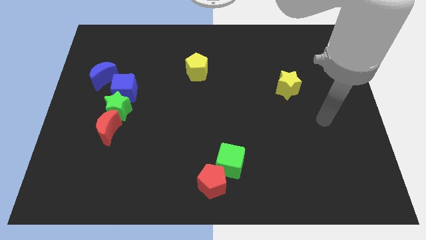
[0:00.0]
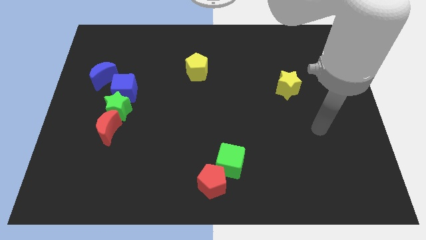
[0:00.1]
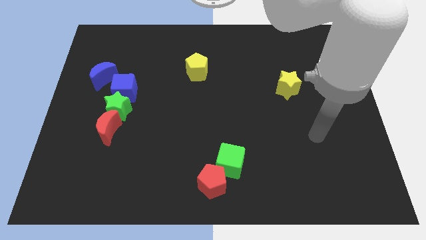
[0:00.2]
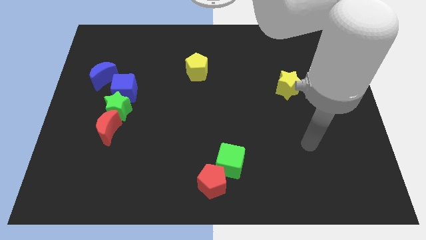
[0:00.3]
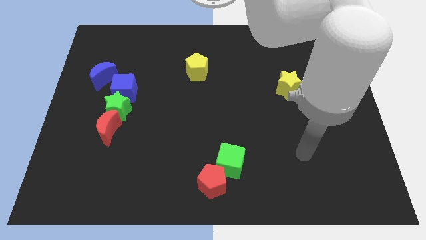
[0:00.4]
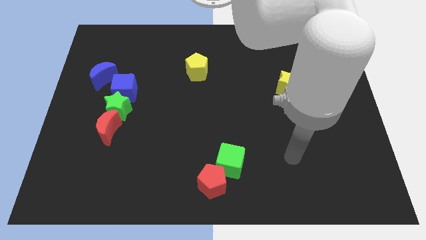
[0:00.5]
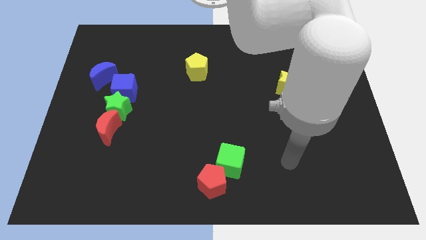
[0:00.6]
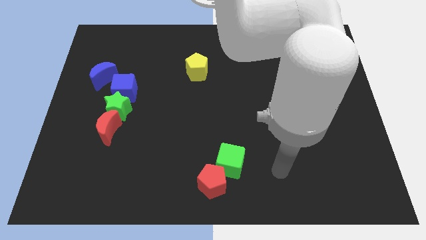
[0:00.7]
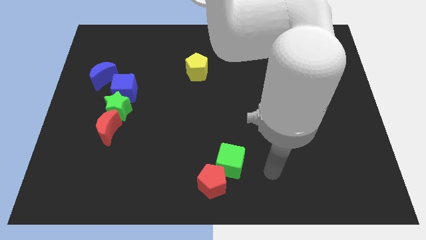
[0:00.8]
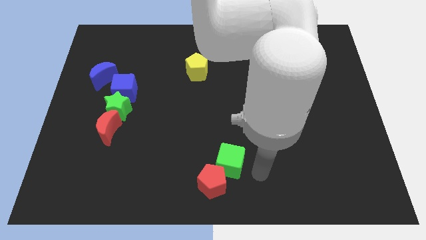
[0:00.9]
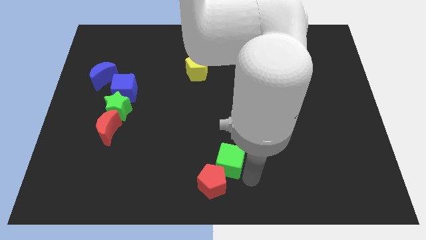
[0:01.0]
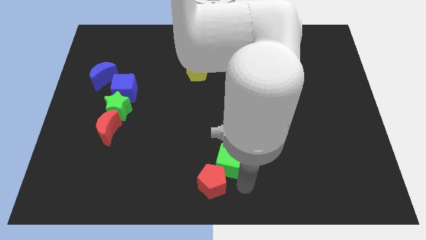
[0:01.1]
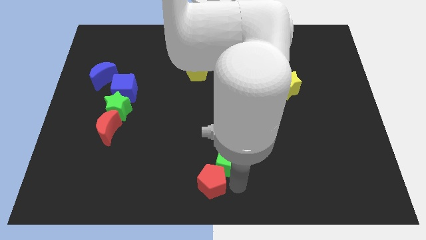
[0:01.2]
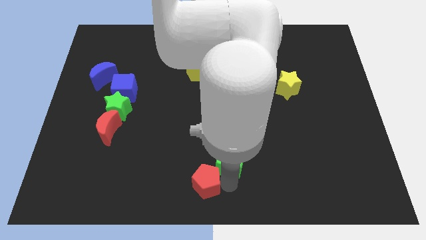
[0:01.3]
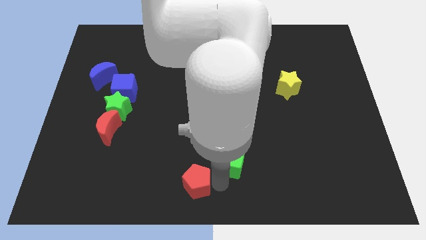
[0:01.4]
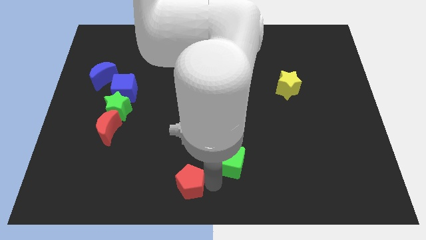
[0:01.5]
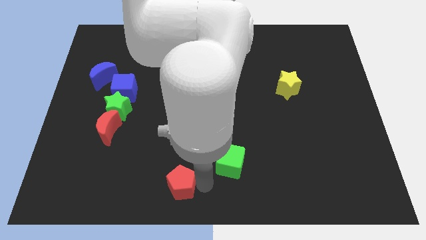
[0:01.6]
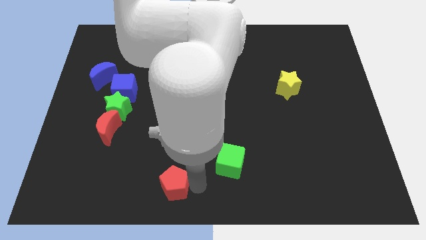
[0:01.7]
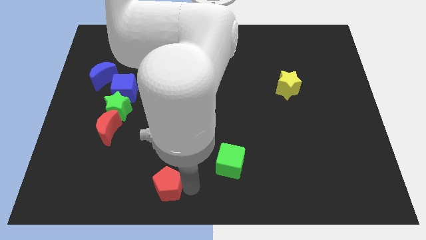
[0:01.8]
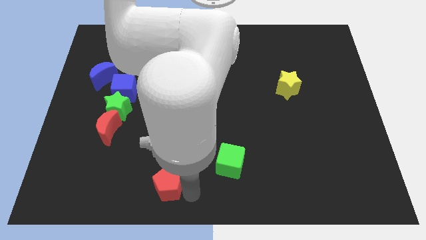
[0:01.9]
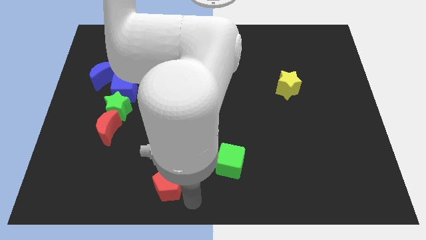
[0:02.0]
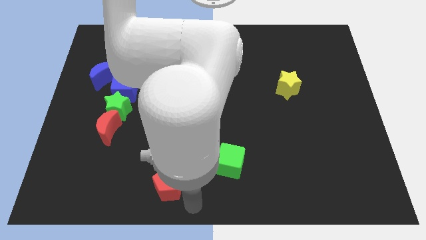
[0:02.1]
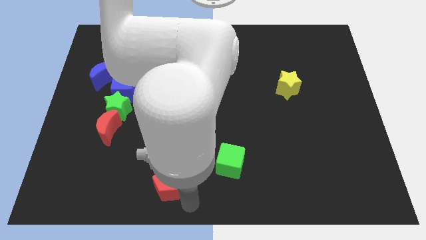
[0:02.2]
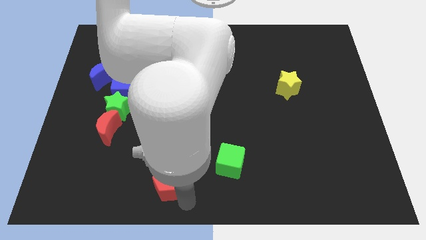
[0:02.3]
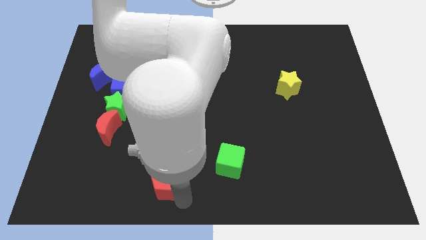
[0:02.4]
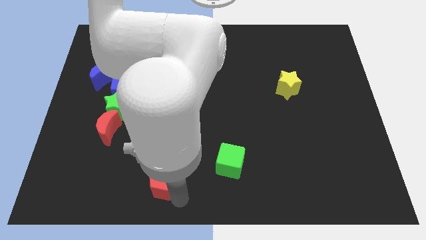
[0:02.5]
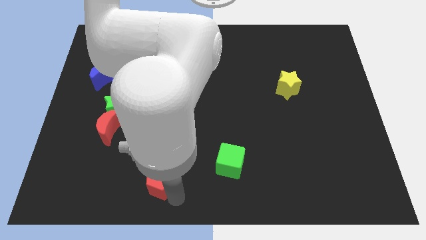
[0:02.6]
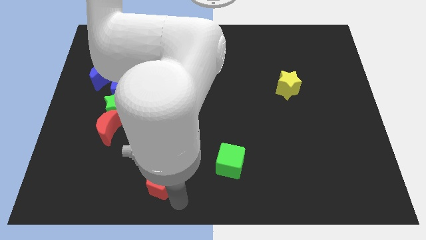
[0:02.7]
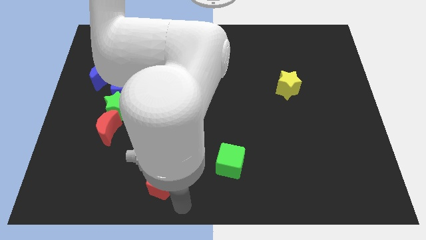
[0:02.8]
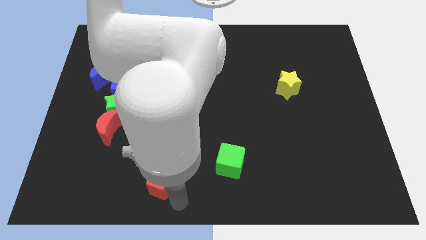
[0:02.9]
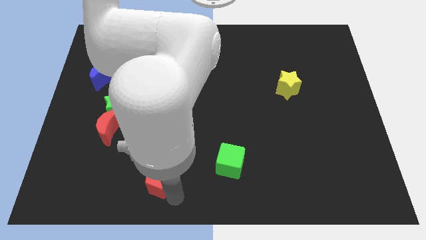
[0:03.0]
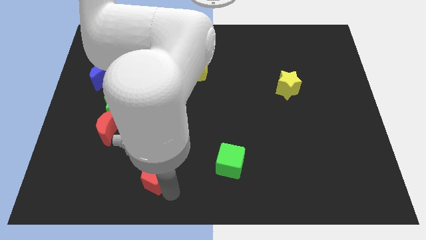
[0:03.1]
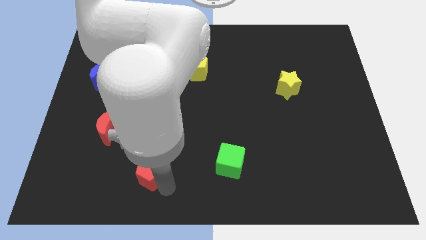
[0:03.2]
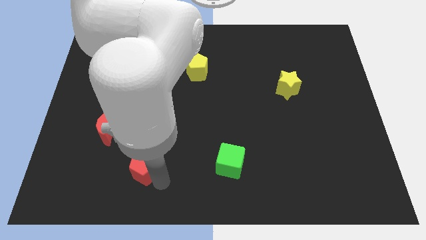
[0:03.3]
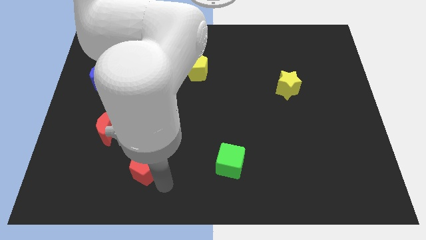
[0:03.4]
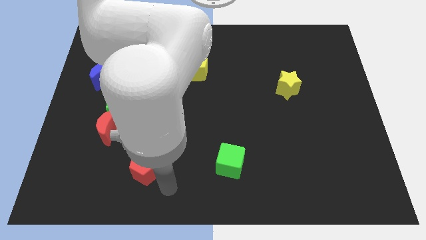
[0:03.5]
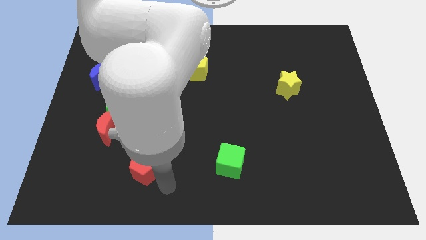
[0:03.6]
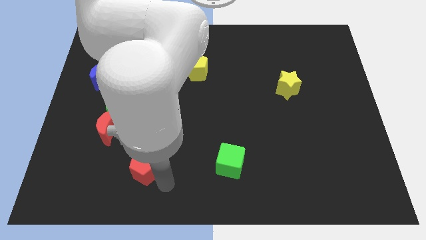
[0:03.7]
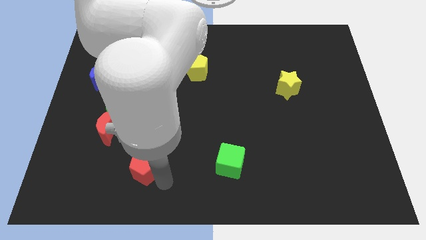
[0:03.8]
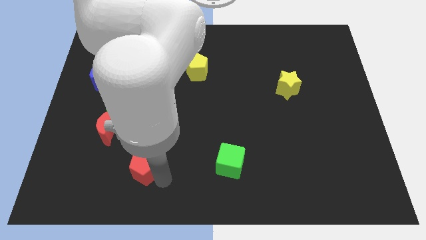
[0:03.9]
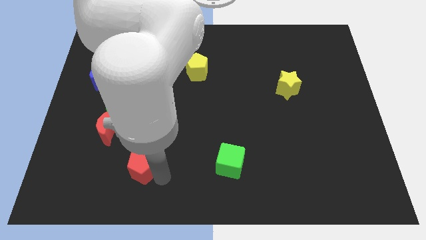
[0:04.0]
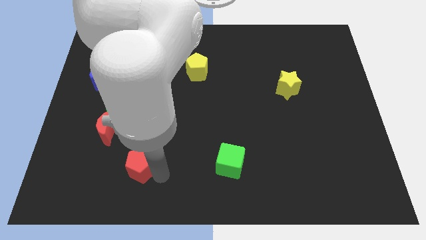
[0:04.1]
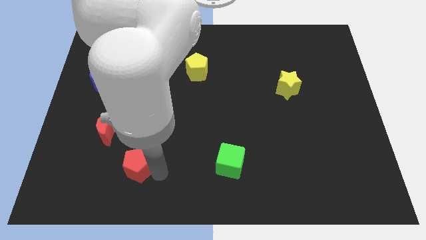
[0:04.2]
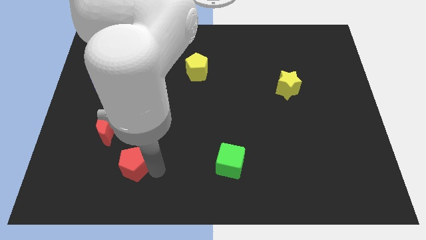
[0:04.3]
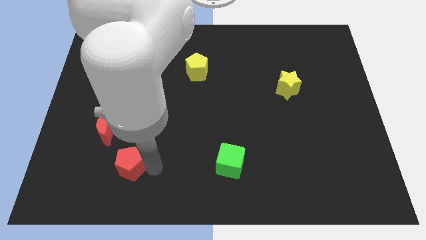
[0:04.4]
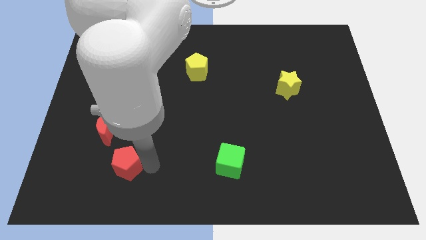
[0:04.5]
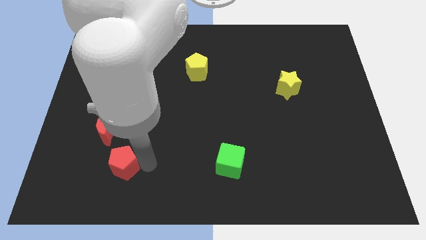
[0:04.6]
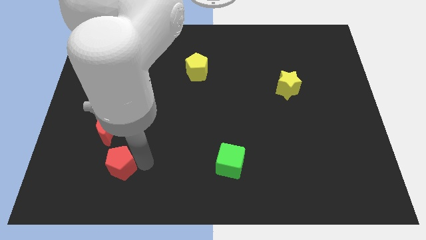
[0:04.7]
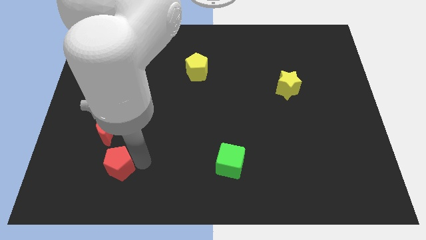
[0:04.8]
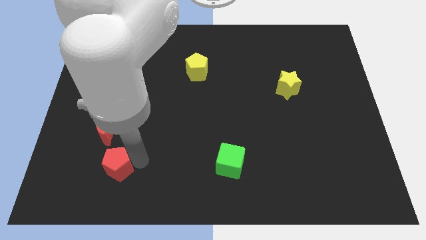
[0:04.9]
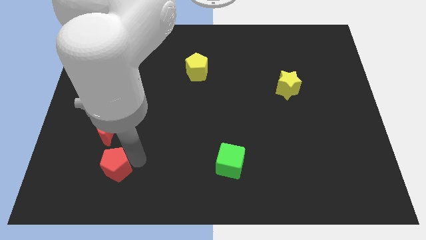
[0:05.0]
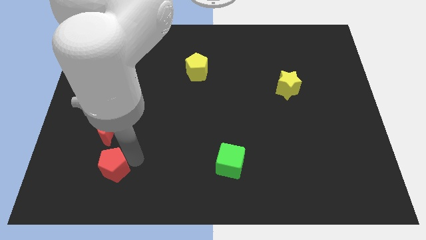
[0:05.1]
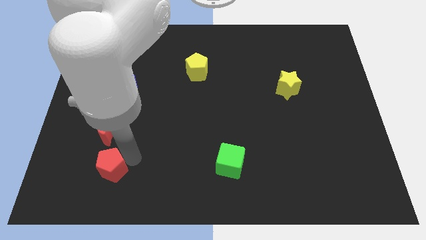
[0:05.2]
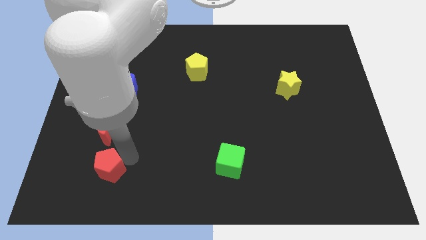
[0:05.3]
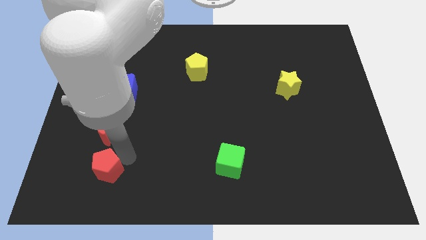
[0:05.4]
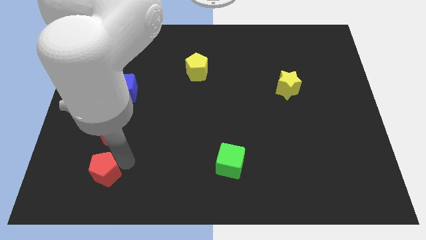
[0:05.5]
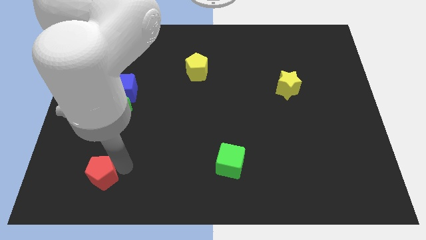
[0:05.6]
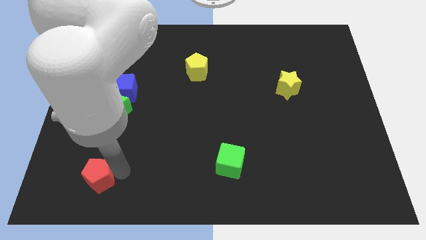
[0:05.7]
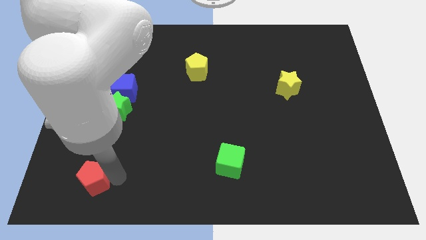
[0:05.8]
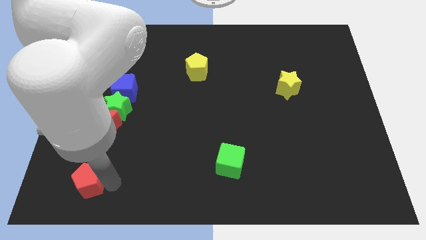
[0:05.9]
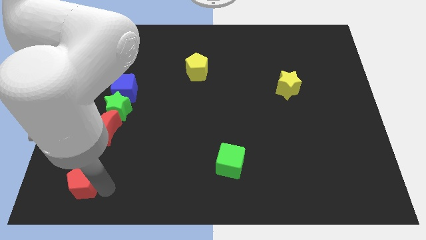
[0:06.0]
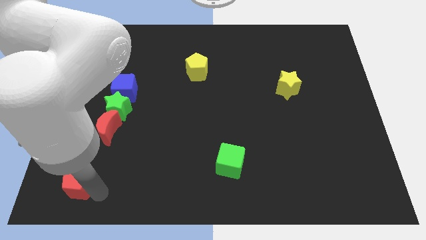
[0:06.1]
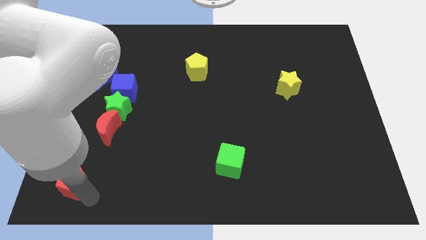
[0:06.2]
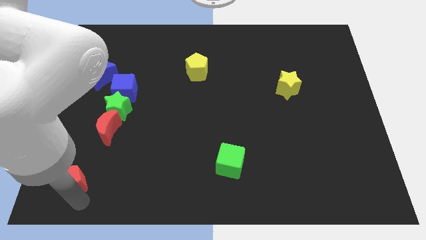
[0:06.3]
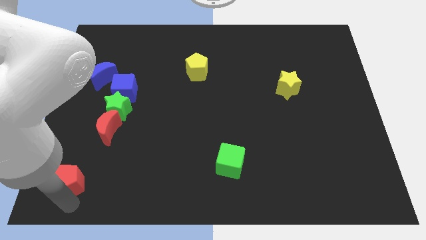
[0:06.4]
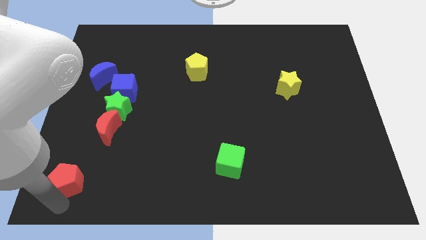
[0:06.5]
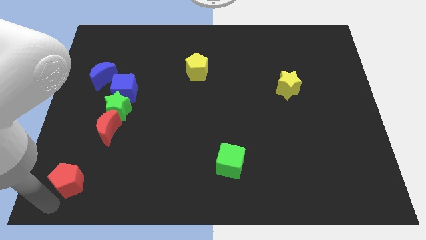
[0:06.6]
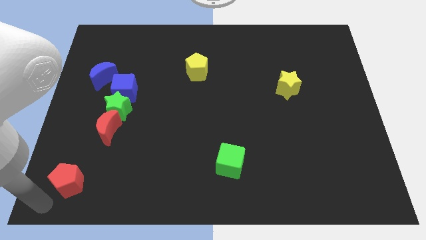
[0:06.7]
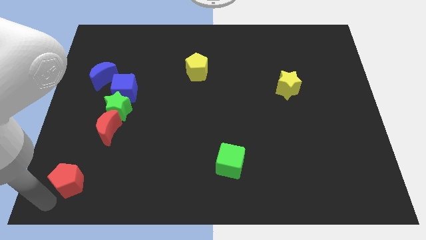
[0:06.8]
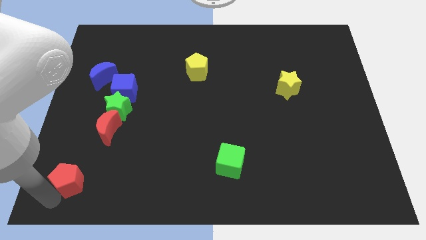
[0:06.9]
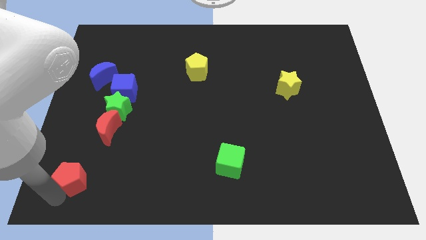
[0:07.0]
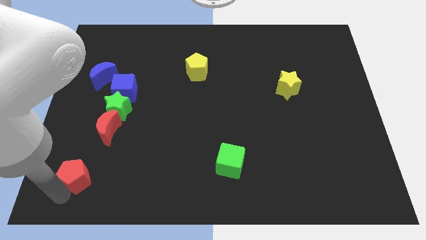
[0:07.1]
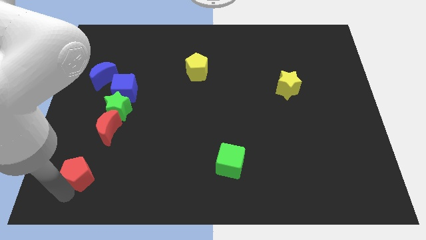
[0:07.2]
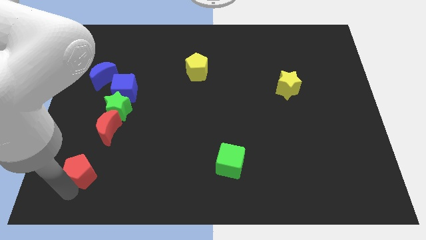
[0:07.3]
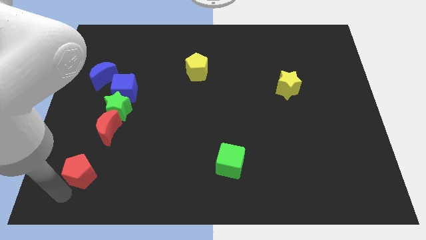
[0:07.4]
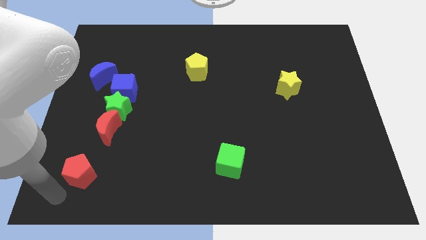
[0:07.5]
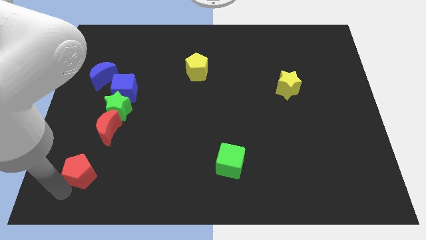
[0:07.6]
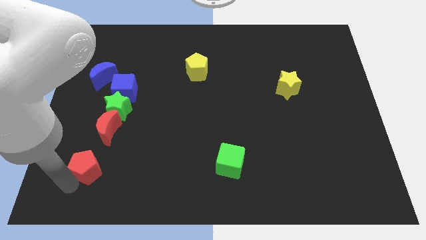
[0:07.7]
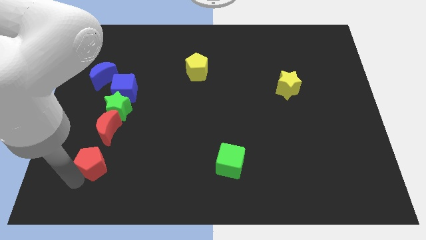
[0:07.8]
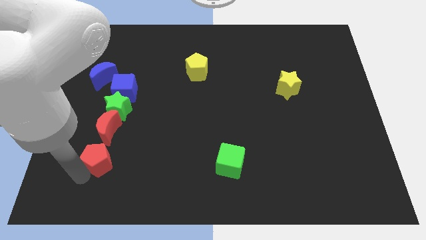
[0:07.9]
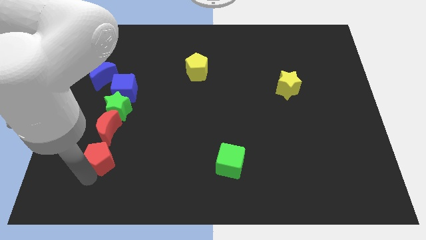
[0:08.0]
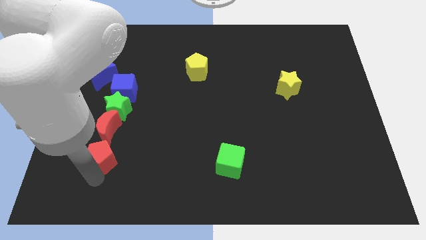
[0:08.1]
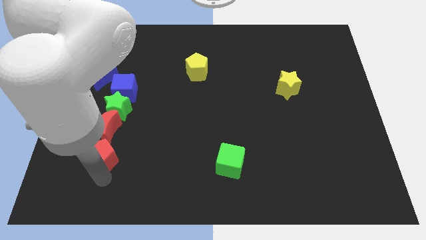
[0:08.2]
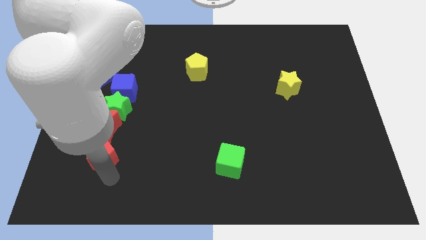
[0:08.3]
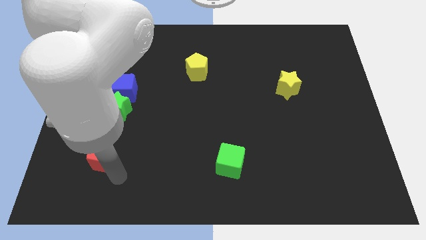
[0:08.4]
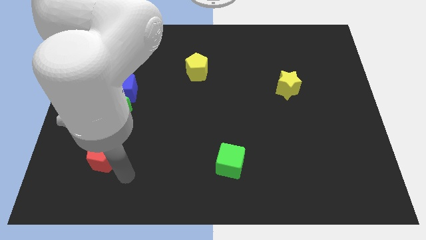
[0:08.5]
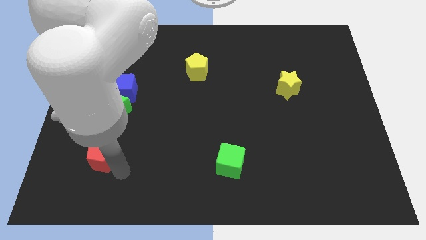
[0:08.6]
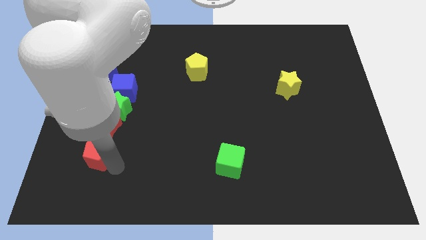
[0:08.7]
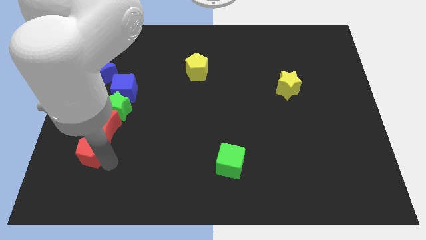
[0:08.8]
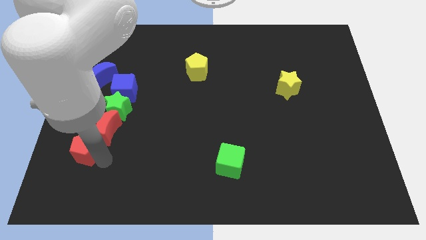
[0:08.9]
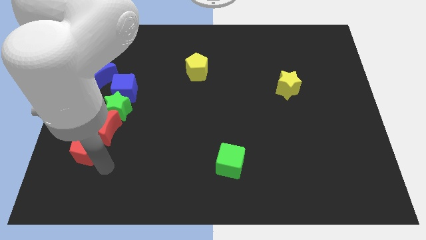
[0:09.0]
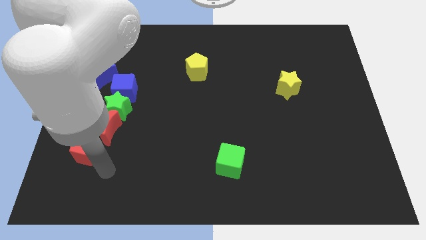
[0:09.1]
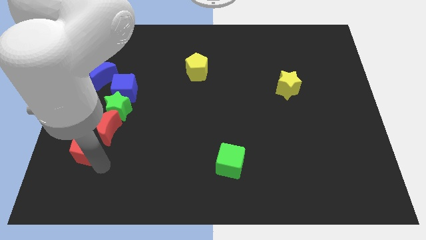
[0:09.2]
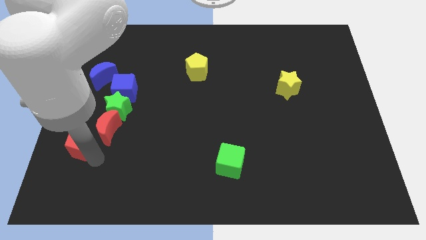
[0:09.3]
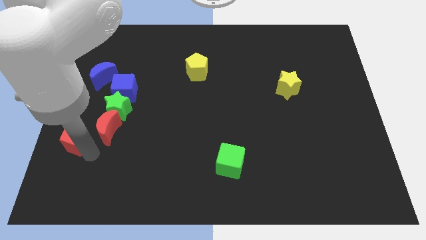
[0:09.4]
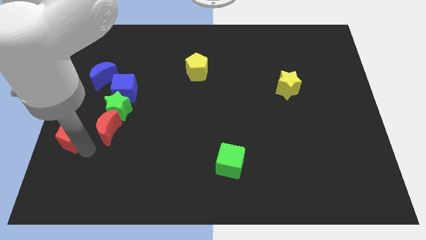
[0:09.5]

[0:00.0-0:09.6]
put the red pentagon to the left side of the board
